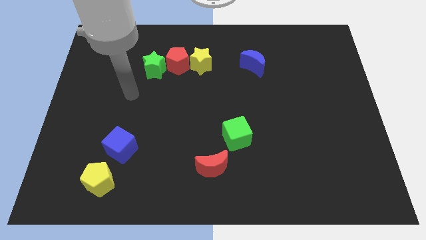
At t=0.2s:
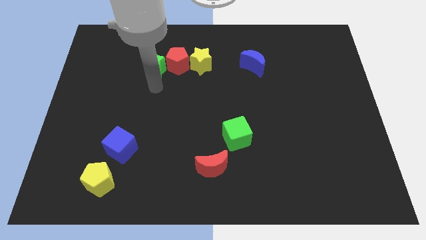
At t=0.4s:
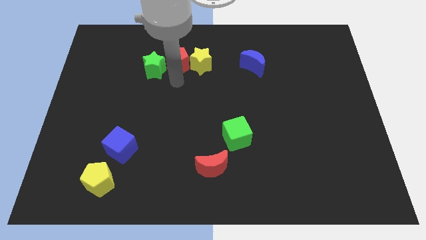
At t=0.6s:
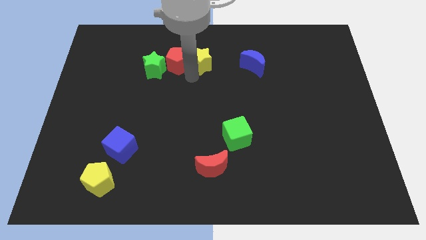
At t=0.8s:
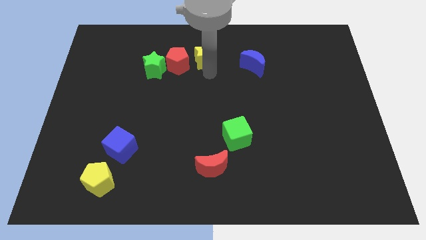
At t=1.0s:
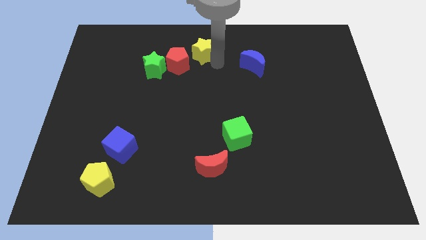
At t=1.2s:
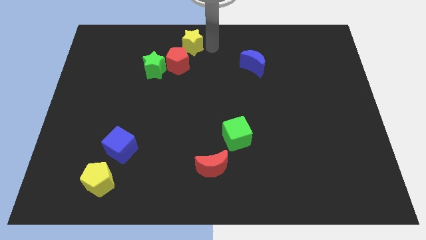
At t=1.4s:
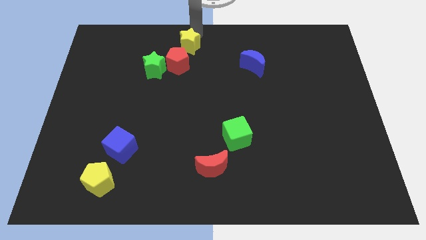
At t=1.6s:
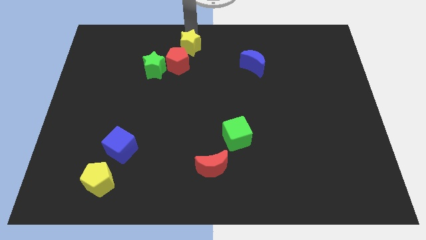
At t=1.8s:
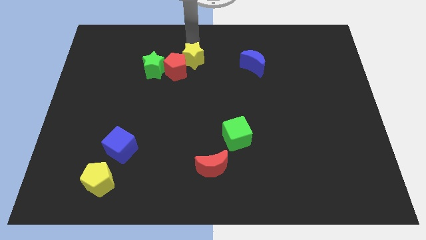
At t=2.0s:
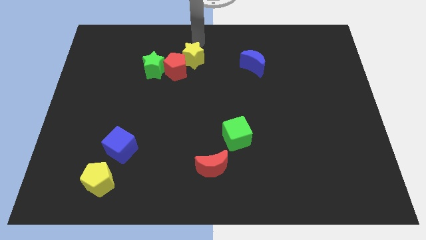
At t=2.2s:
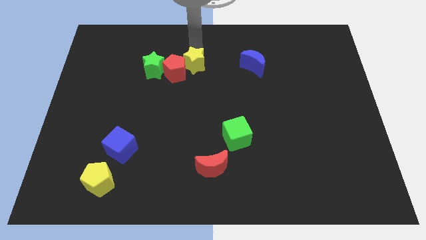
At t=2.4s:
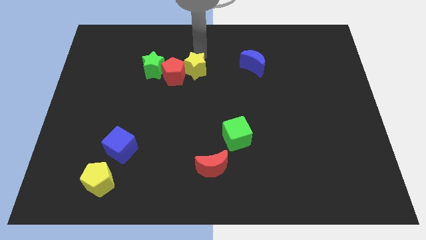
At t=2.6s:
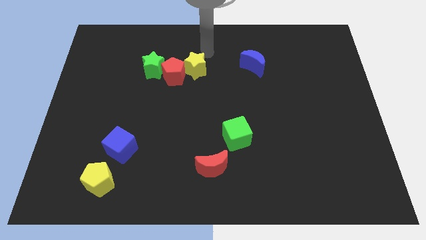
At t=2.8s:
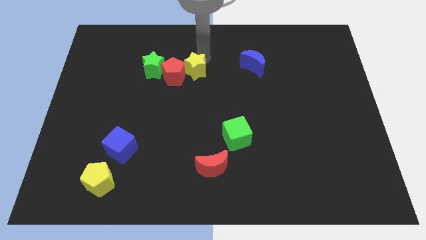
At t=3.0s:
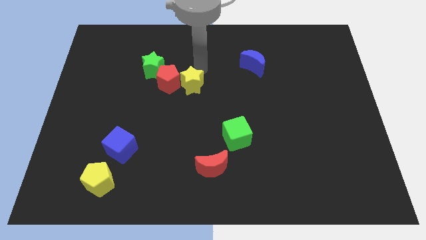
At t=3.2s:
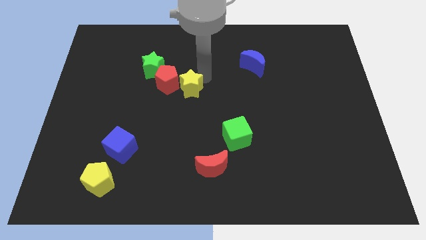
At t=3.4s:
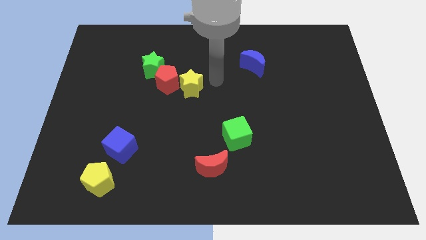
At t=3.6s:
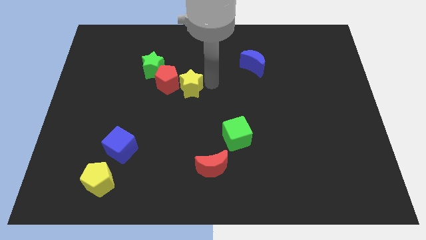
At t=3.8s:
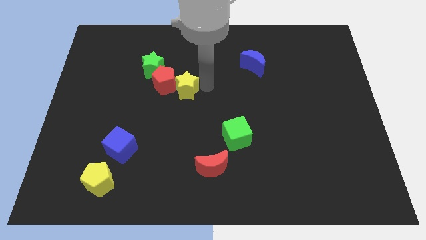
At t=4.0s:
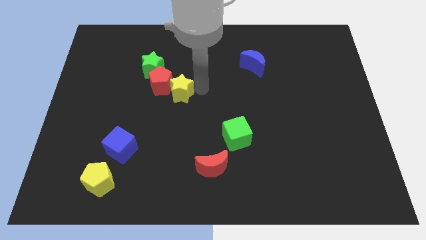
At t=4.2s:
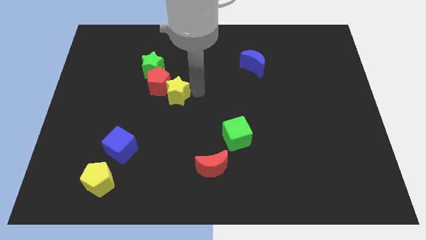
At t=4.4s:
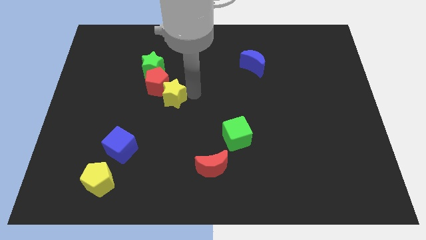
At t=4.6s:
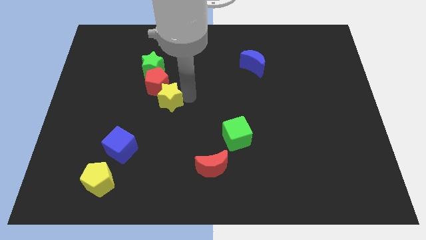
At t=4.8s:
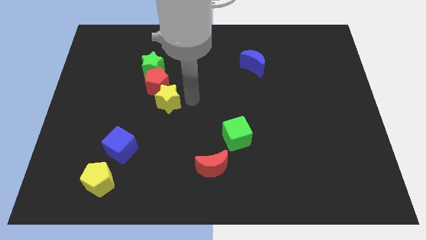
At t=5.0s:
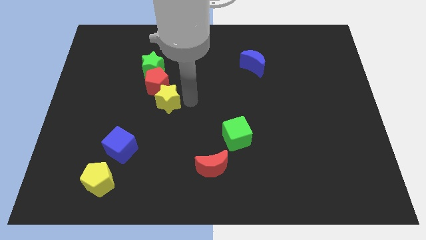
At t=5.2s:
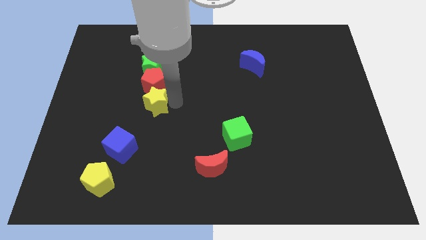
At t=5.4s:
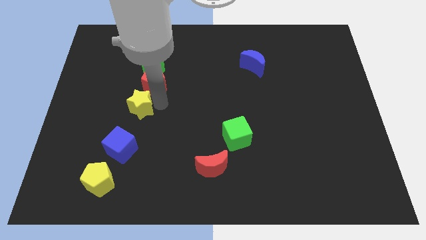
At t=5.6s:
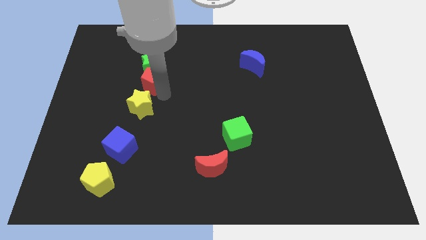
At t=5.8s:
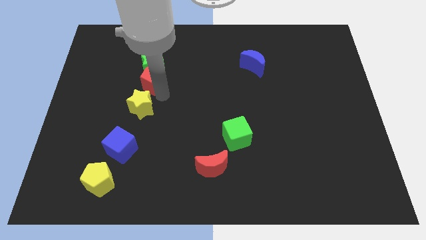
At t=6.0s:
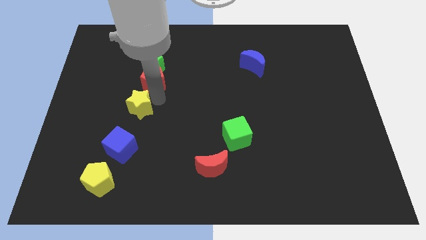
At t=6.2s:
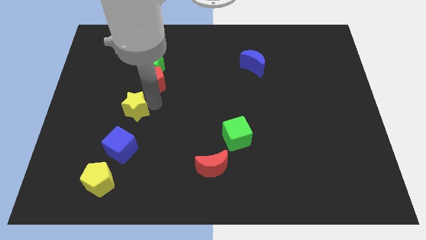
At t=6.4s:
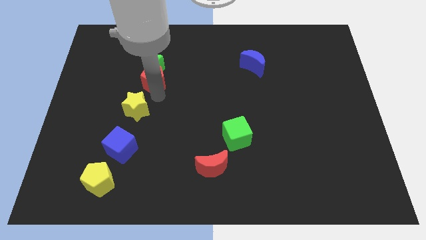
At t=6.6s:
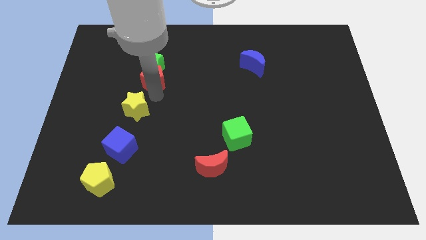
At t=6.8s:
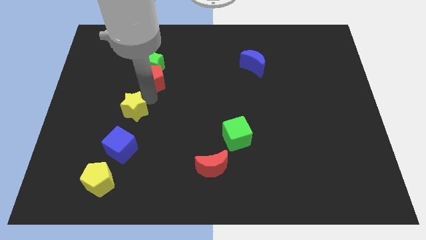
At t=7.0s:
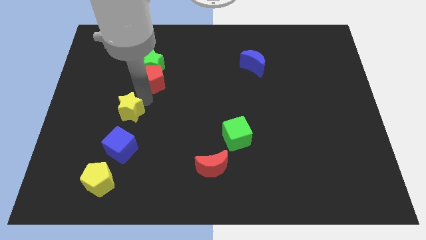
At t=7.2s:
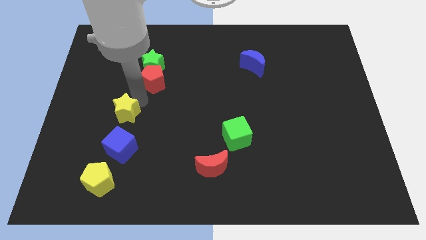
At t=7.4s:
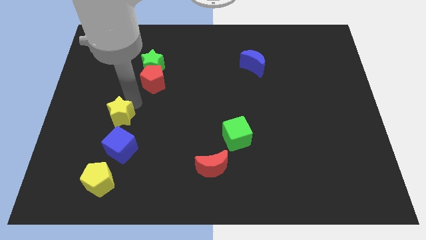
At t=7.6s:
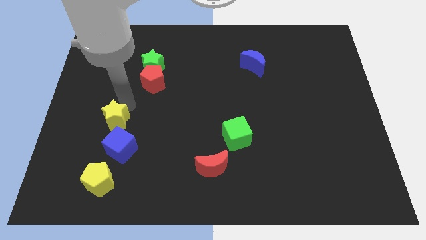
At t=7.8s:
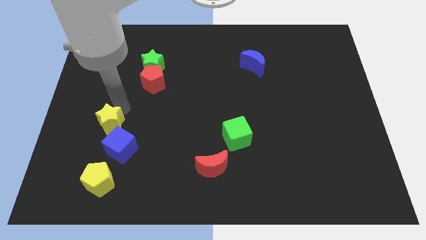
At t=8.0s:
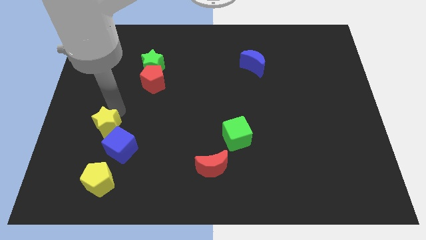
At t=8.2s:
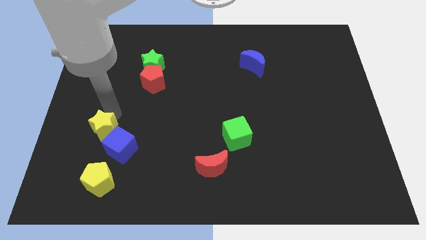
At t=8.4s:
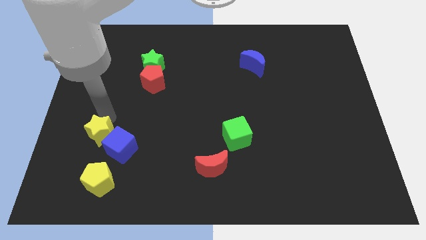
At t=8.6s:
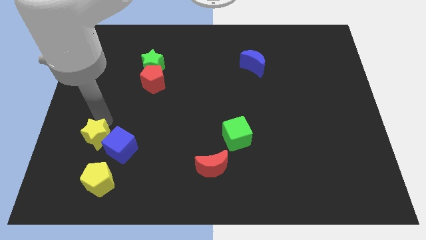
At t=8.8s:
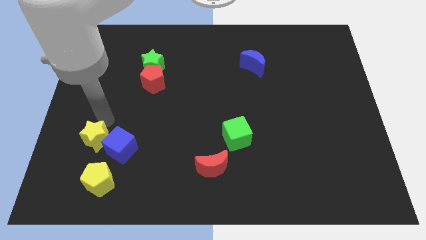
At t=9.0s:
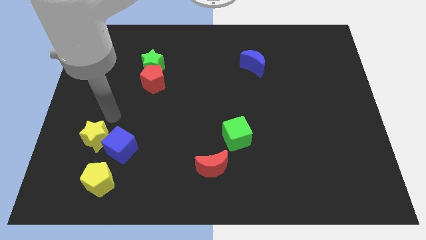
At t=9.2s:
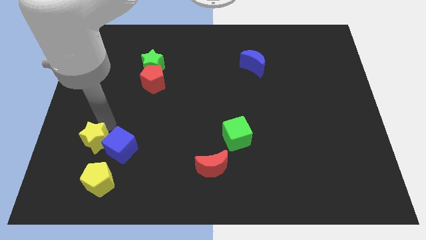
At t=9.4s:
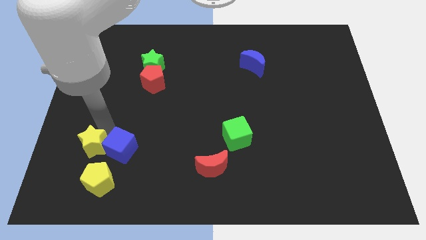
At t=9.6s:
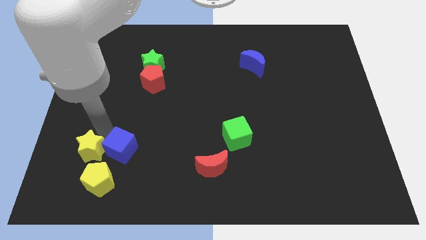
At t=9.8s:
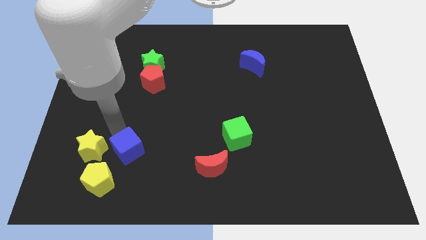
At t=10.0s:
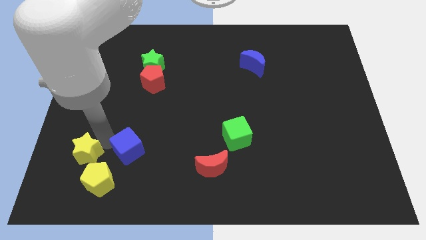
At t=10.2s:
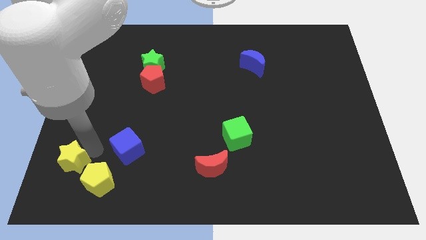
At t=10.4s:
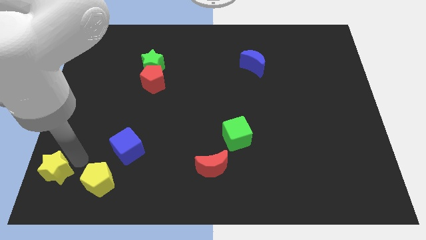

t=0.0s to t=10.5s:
push the yellow star to the bottom left of the board

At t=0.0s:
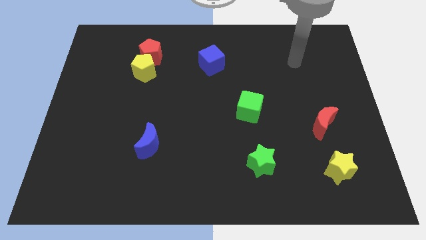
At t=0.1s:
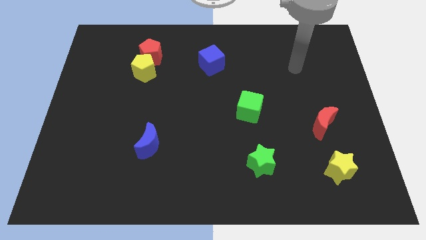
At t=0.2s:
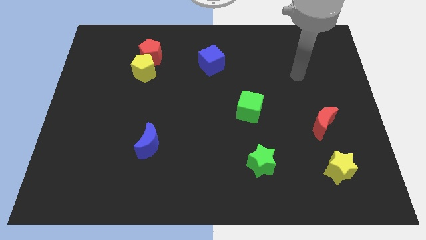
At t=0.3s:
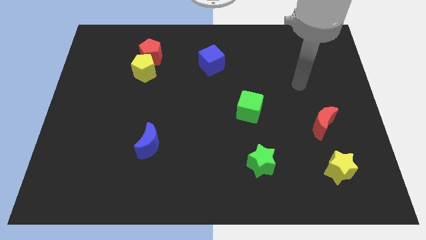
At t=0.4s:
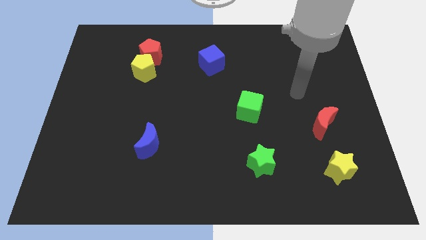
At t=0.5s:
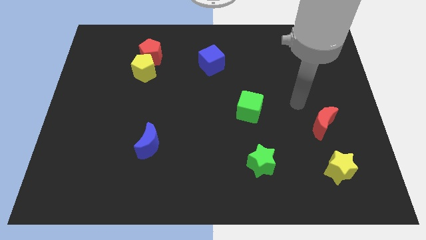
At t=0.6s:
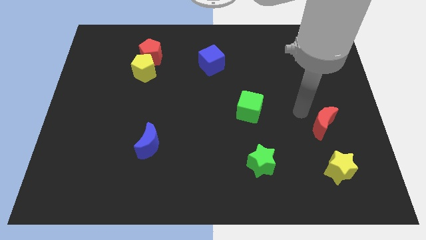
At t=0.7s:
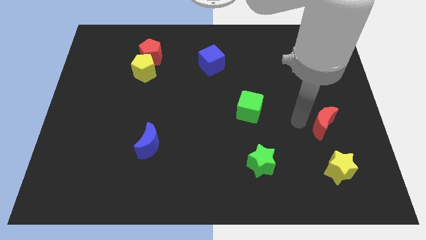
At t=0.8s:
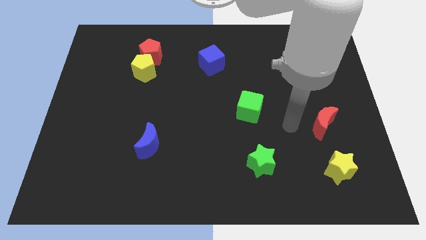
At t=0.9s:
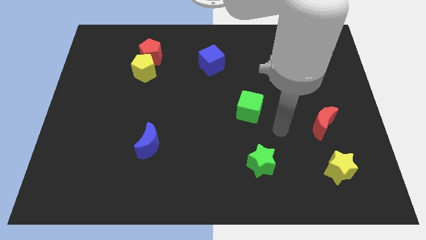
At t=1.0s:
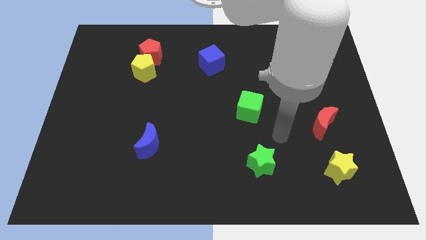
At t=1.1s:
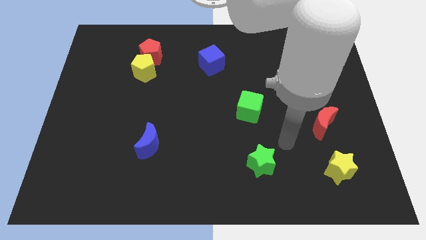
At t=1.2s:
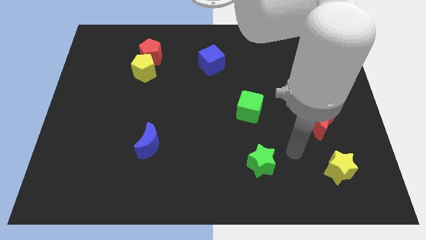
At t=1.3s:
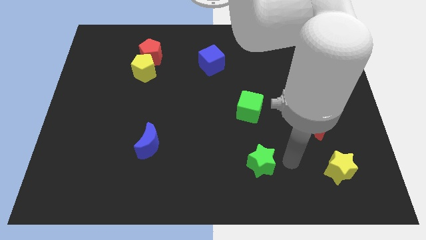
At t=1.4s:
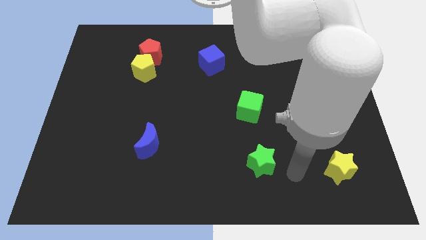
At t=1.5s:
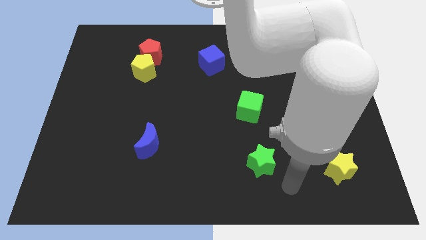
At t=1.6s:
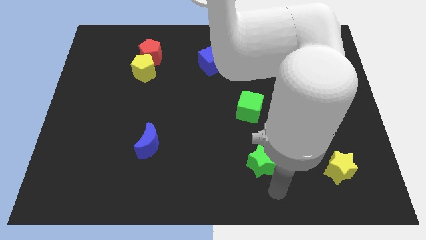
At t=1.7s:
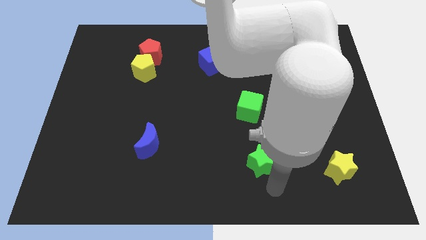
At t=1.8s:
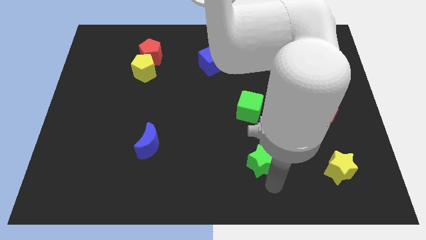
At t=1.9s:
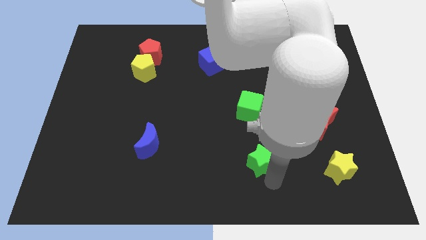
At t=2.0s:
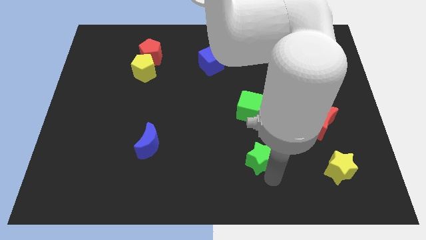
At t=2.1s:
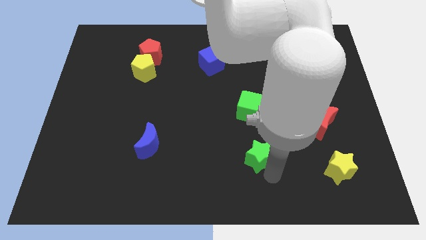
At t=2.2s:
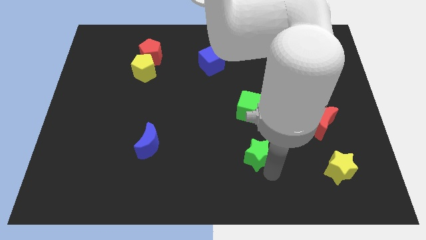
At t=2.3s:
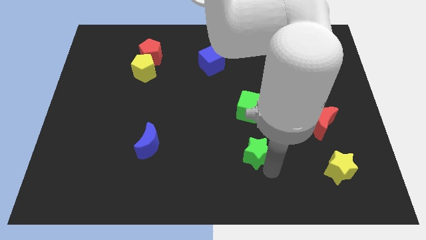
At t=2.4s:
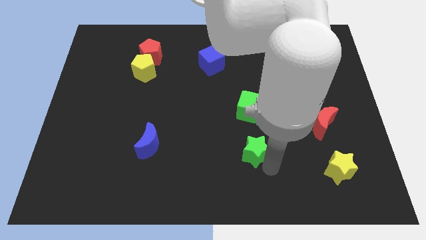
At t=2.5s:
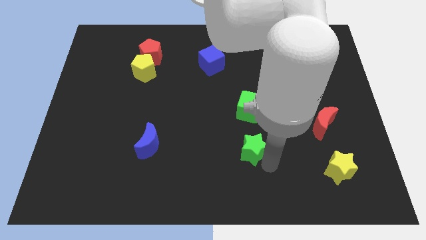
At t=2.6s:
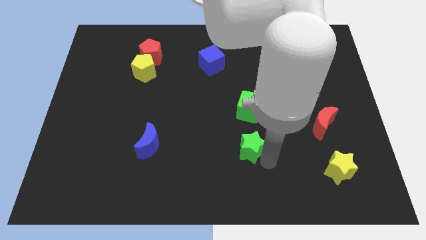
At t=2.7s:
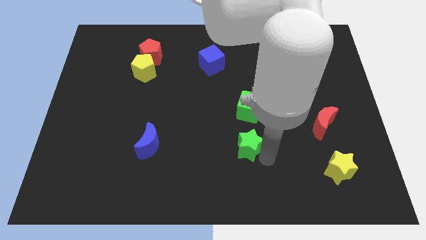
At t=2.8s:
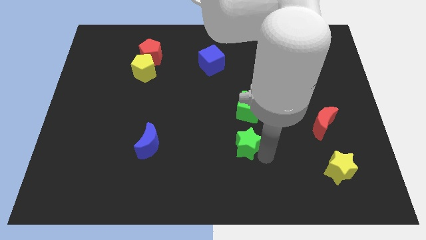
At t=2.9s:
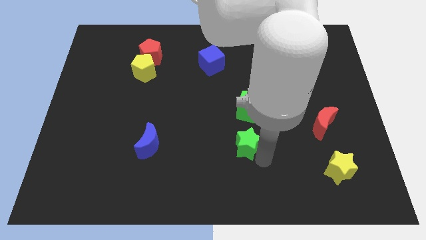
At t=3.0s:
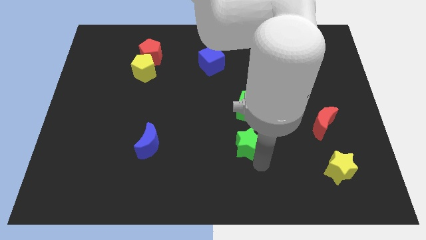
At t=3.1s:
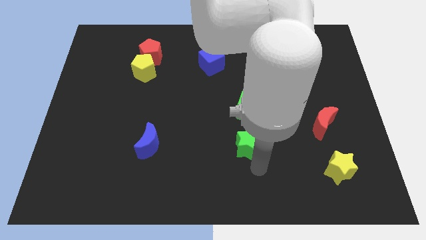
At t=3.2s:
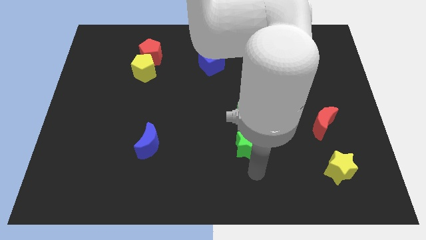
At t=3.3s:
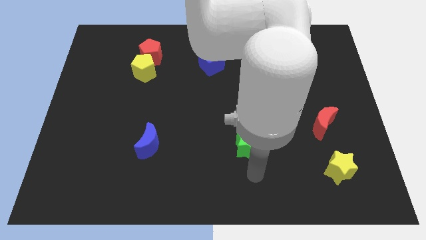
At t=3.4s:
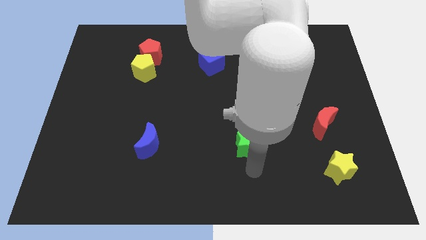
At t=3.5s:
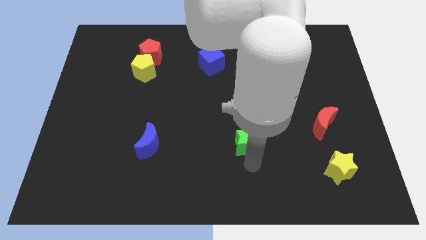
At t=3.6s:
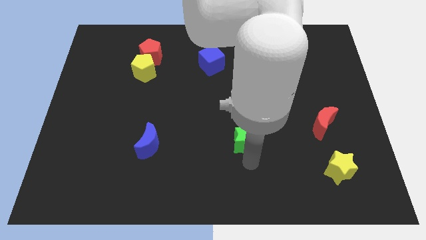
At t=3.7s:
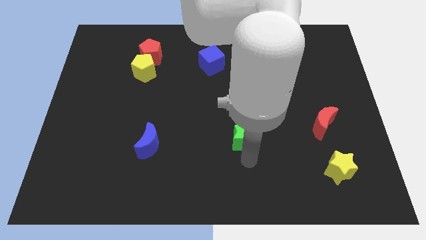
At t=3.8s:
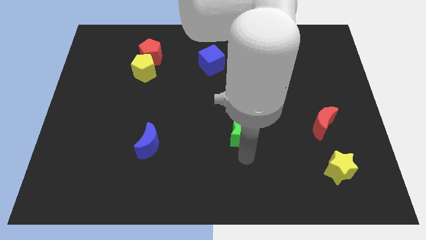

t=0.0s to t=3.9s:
move the green star to the center
